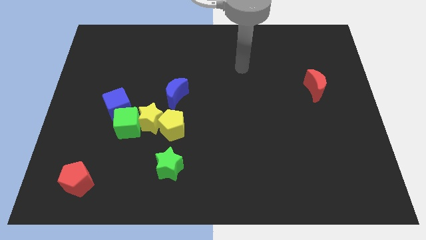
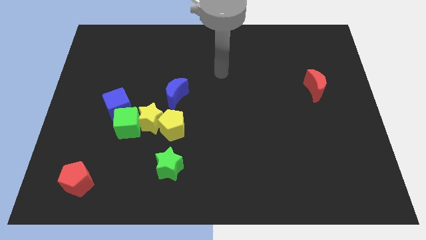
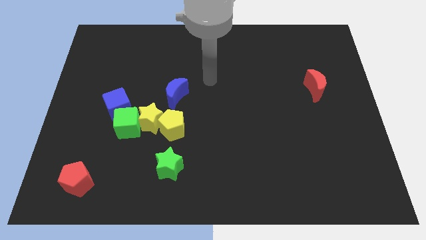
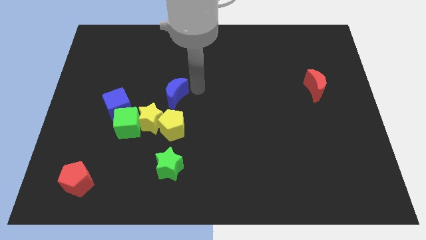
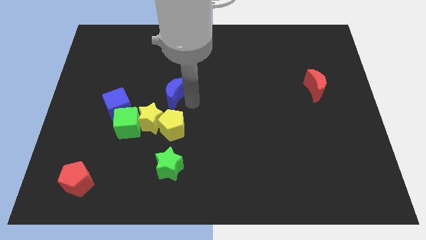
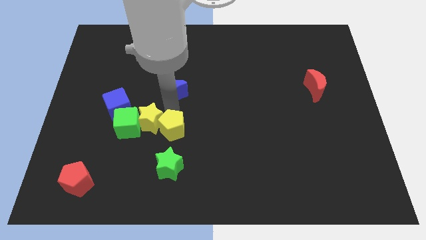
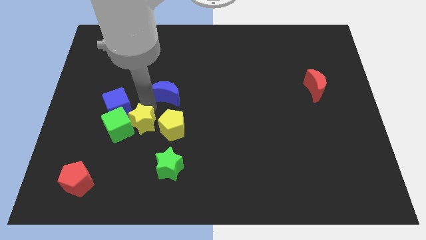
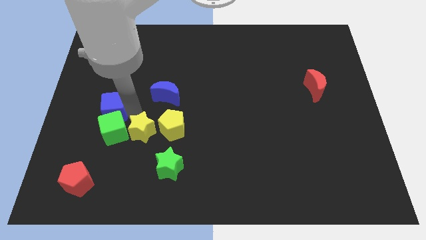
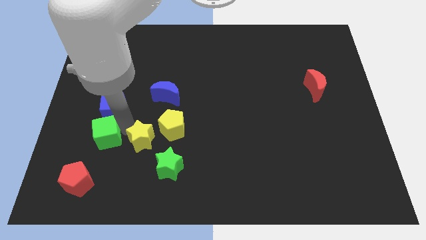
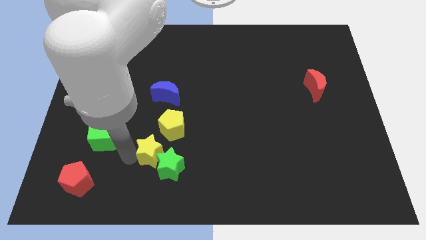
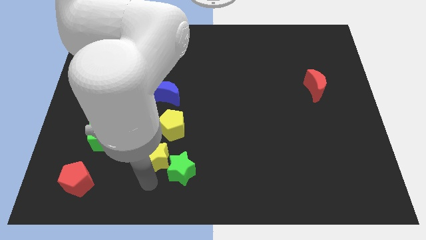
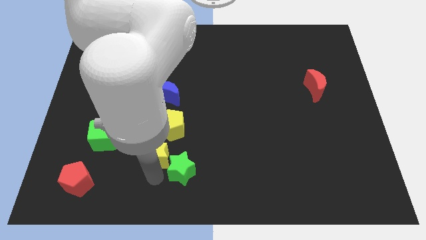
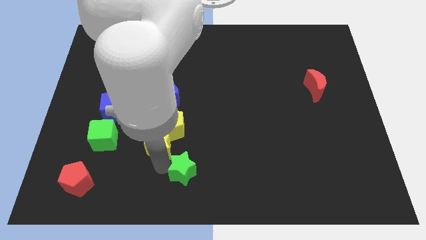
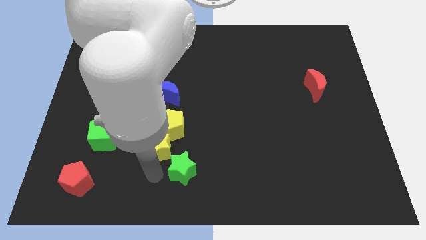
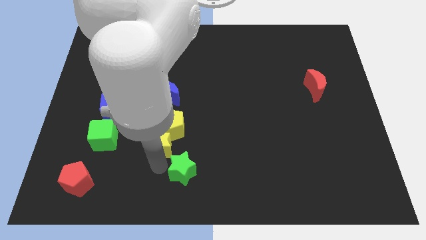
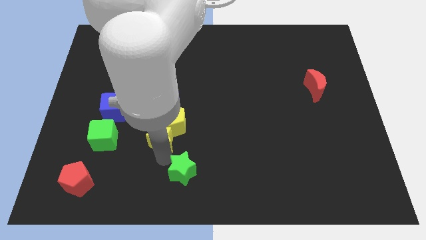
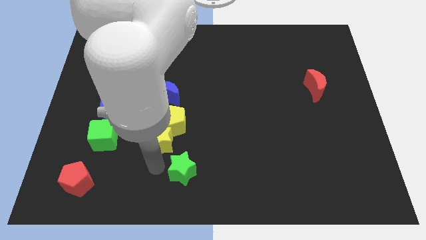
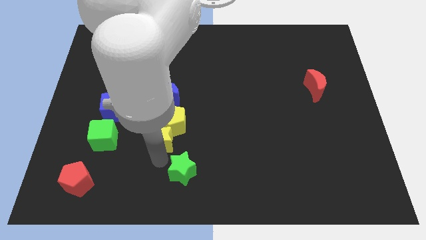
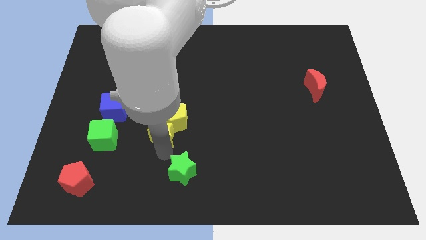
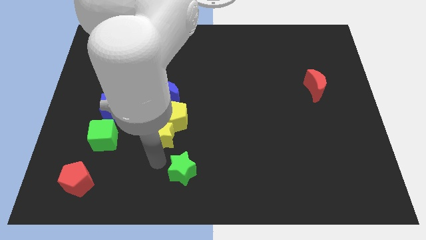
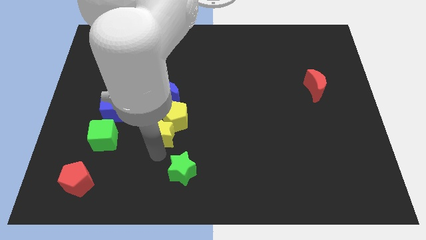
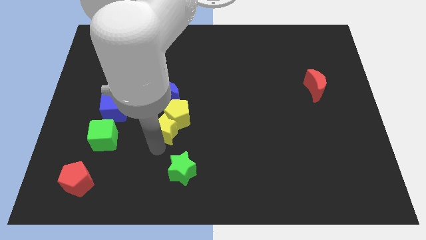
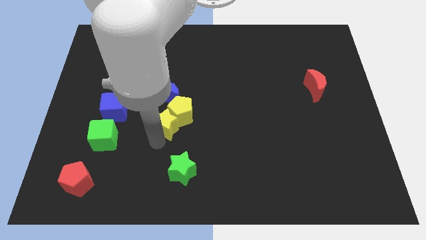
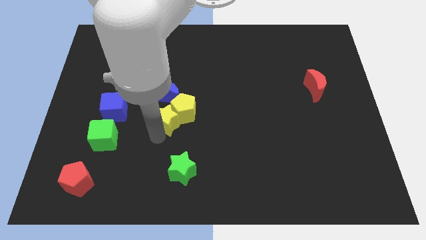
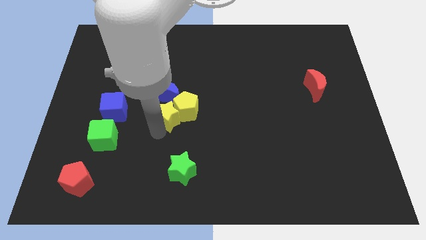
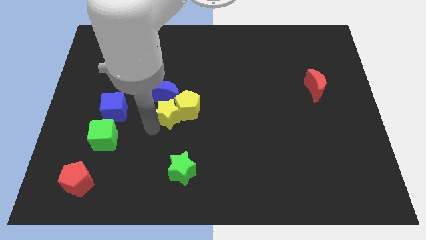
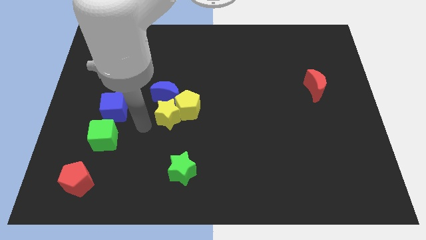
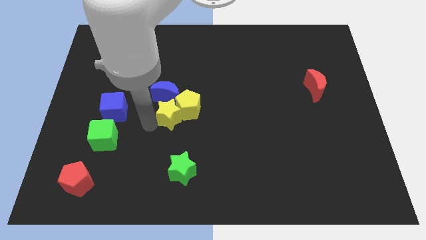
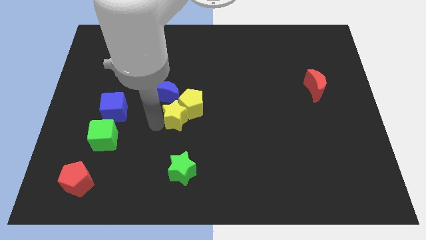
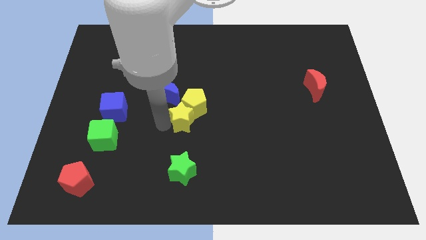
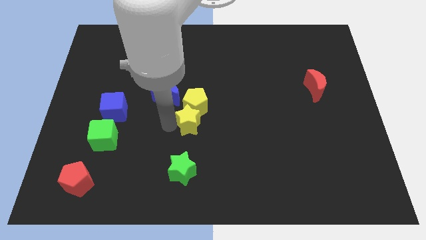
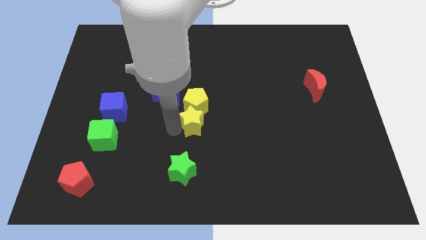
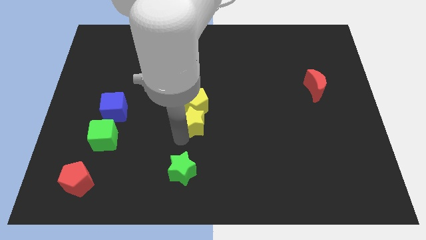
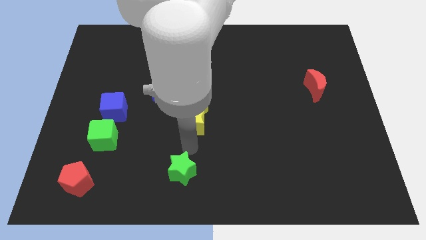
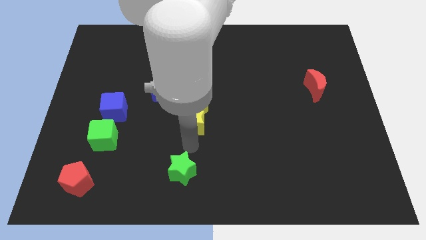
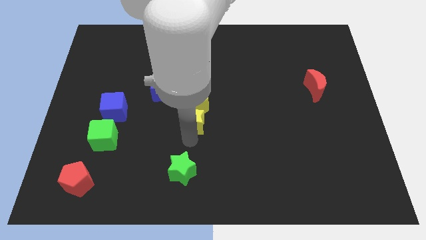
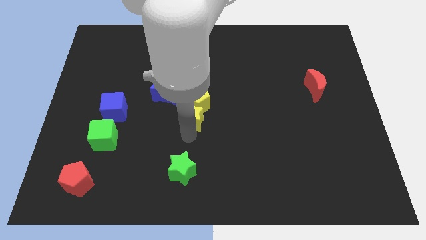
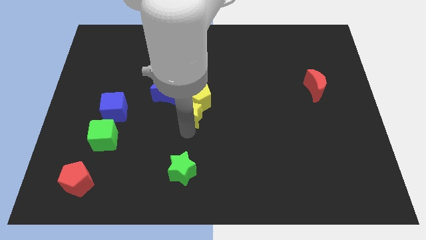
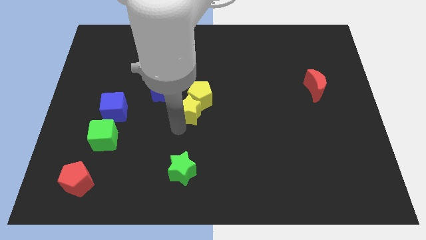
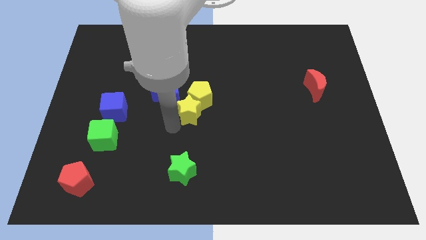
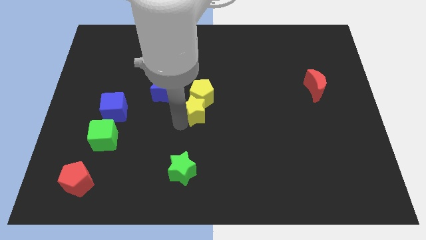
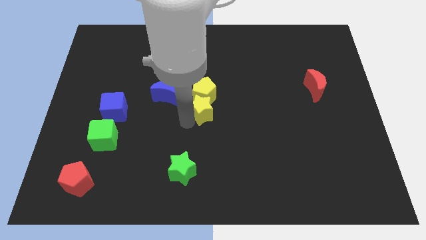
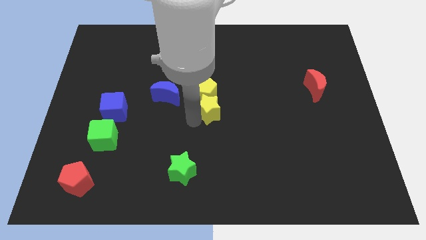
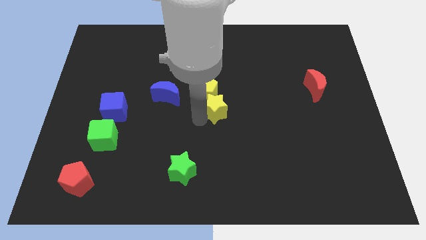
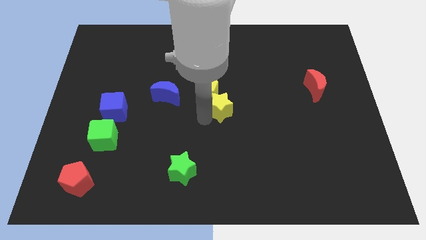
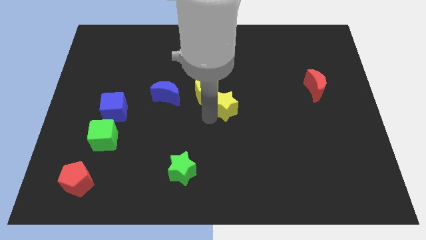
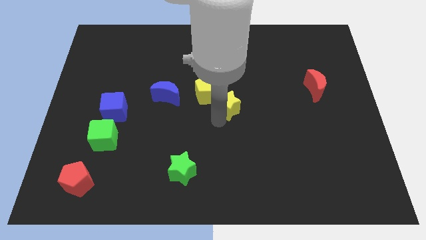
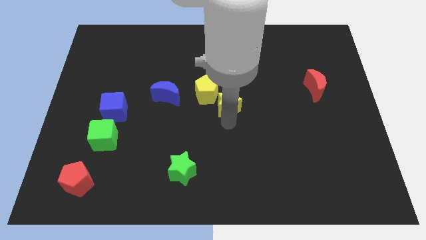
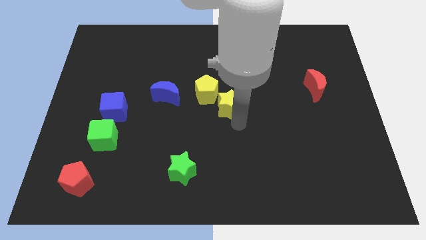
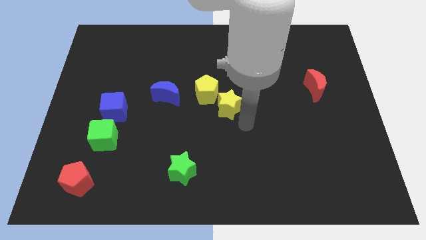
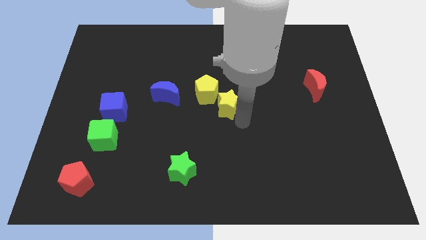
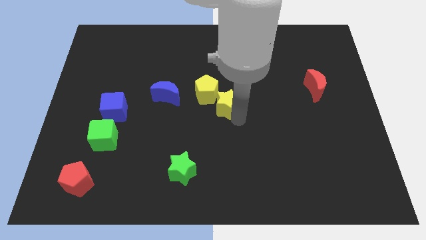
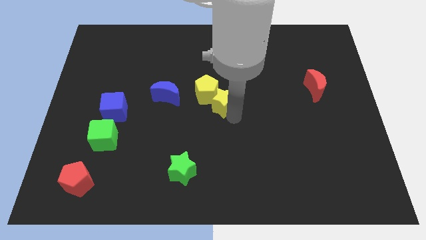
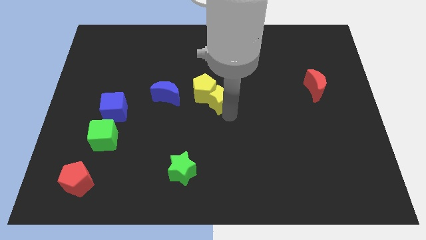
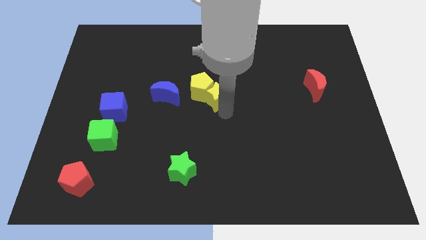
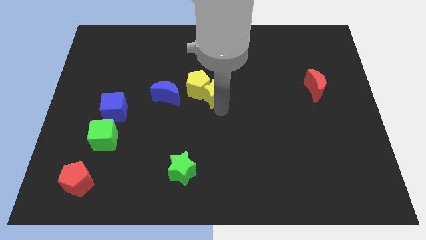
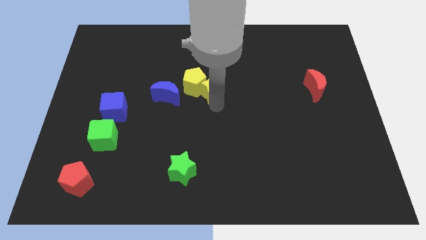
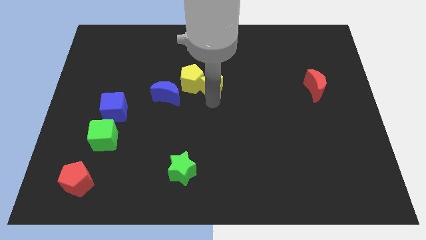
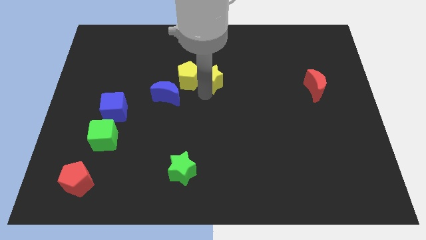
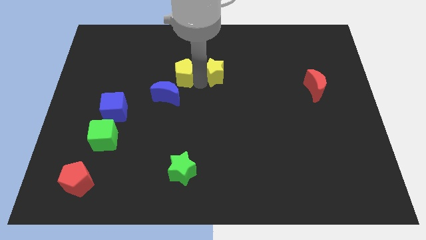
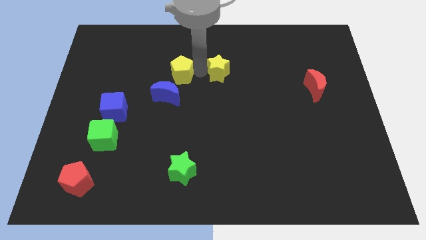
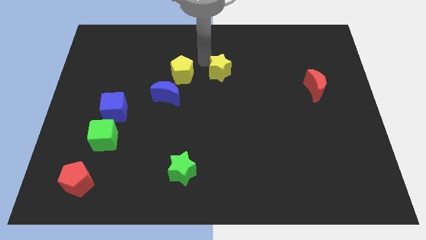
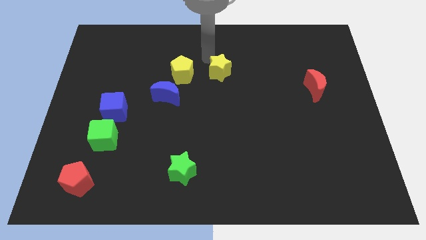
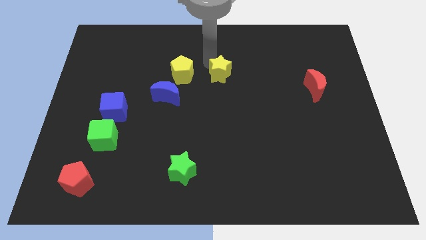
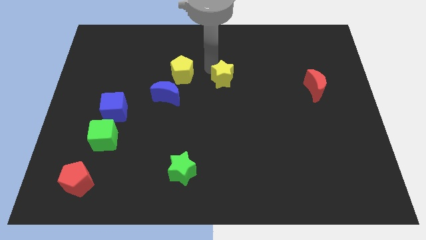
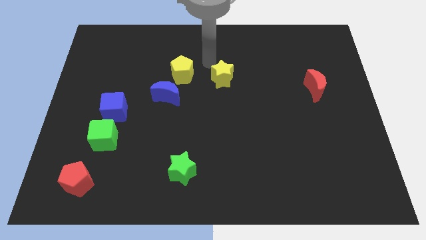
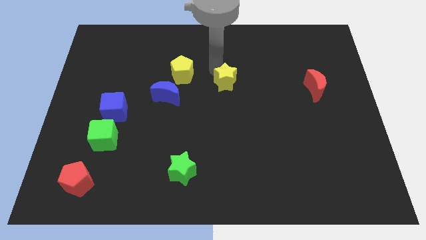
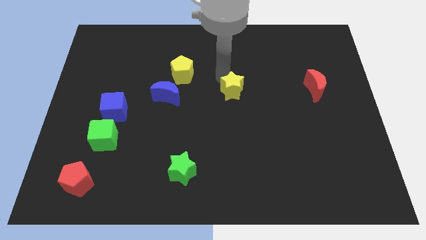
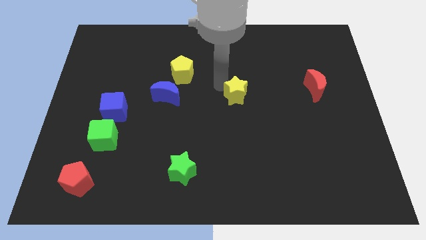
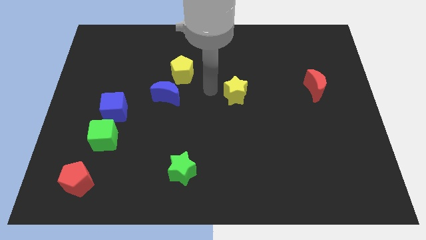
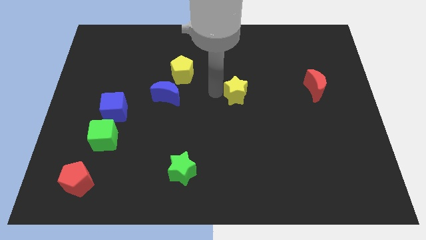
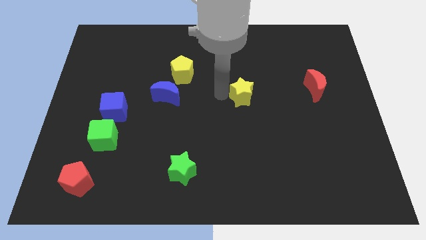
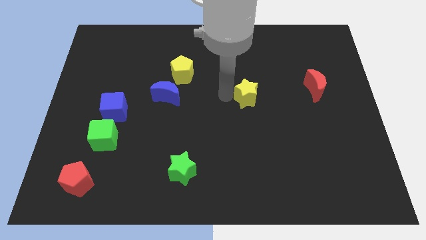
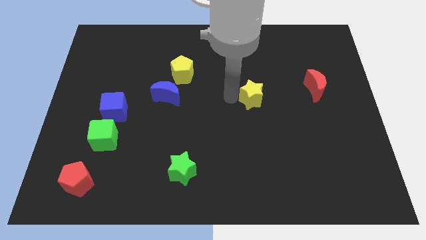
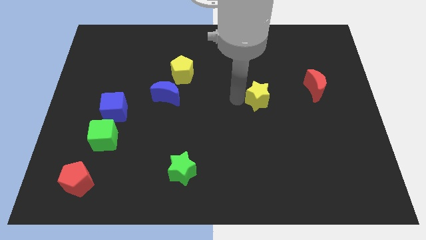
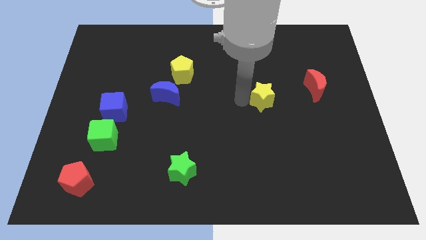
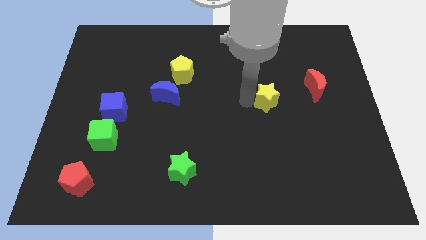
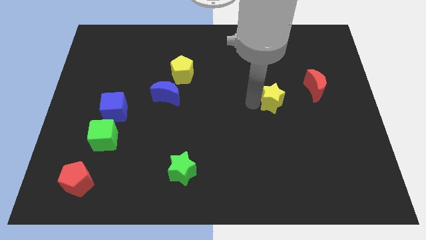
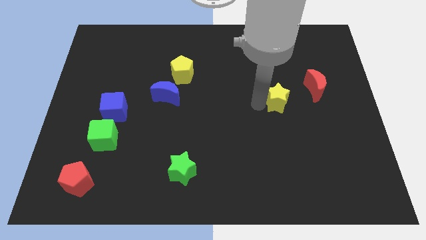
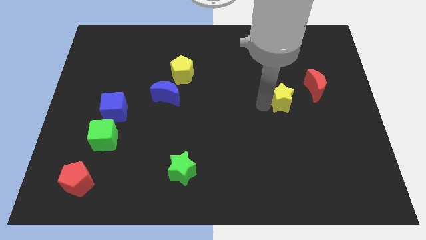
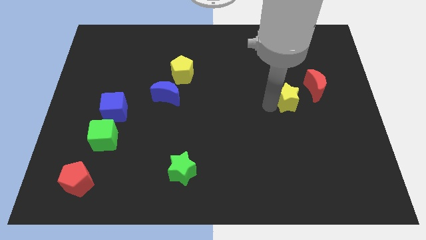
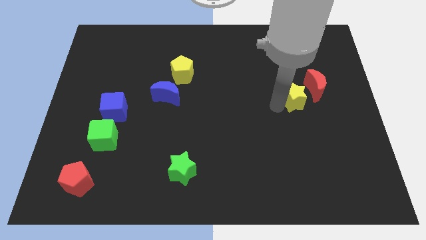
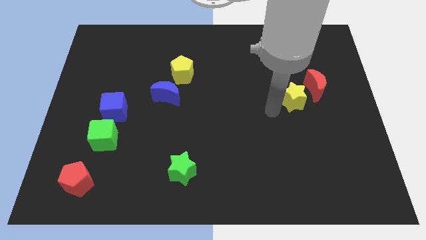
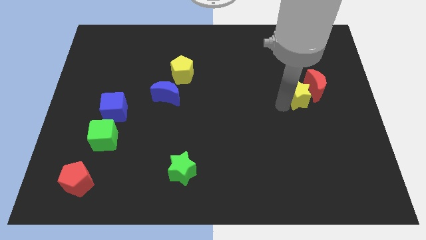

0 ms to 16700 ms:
push the yellow star to the red moon

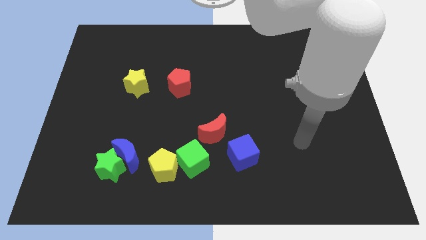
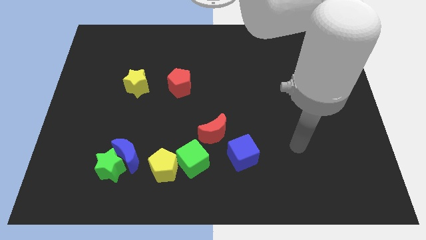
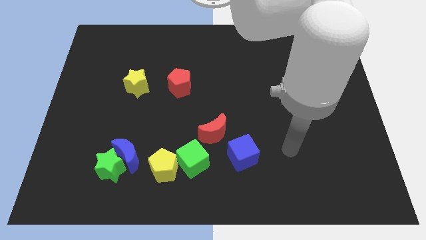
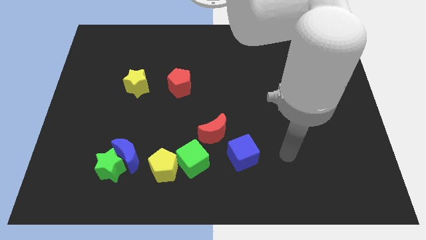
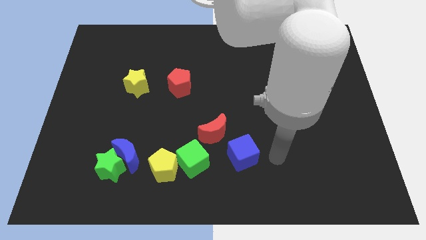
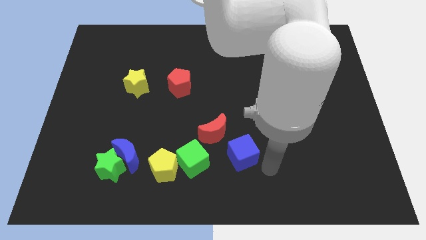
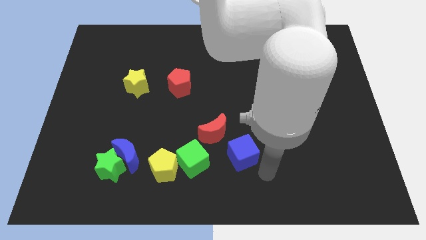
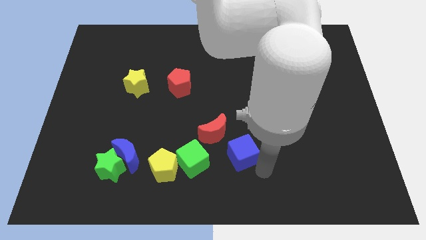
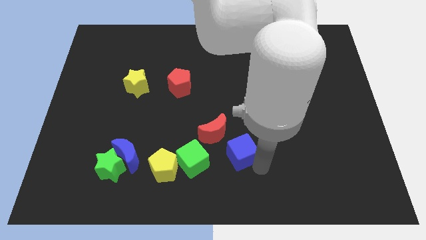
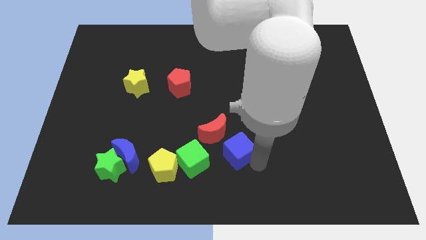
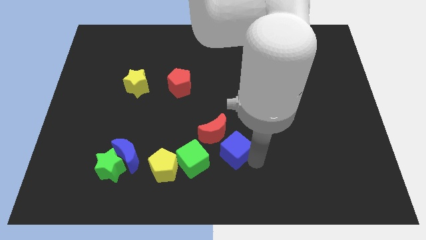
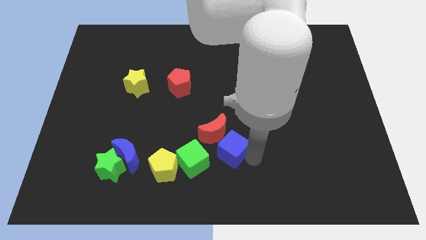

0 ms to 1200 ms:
push the blue cube to the red moon
